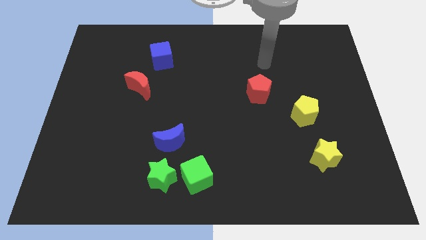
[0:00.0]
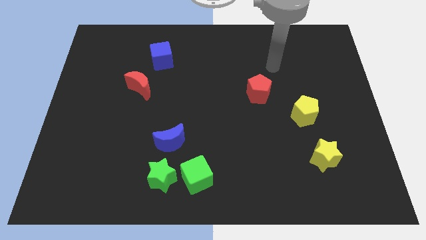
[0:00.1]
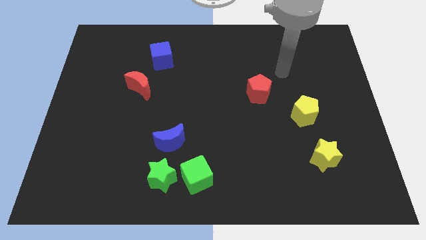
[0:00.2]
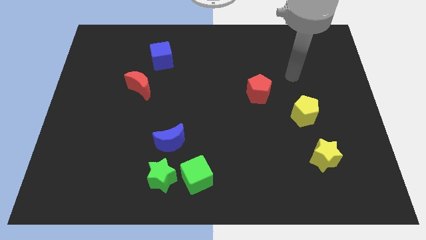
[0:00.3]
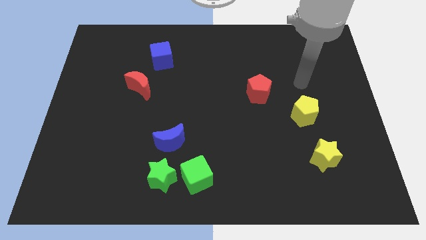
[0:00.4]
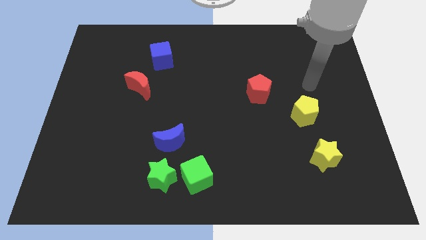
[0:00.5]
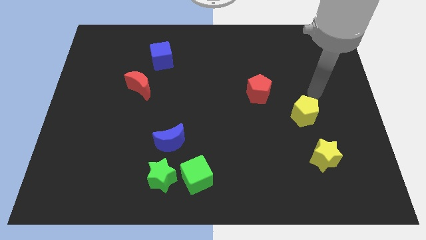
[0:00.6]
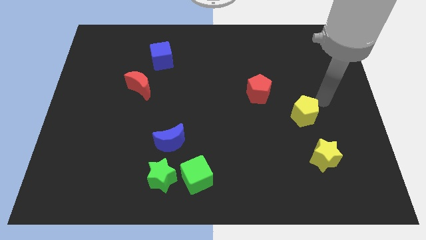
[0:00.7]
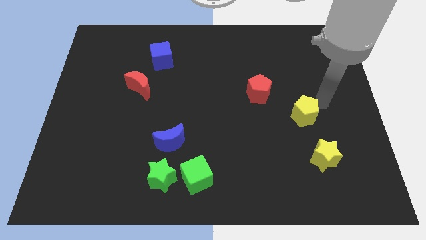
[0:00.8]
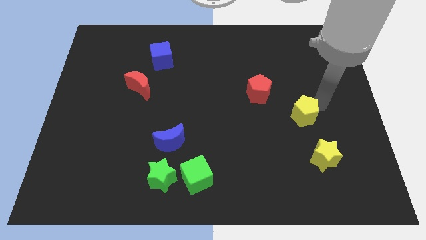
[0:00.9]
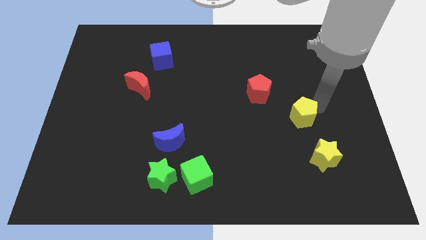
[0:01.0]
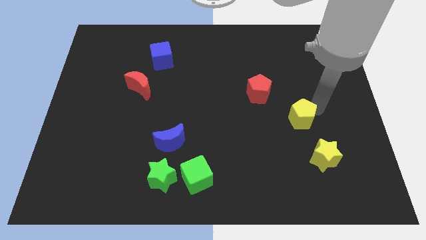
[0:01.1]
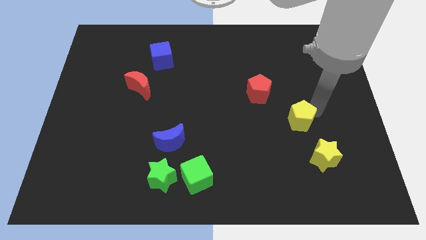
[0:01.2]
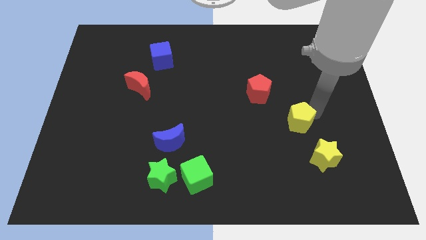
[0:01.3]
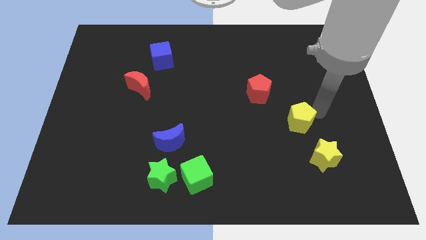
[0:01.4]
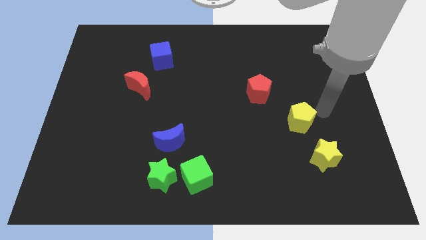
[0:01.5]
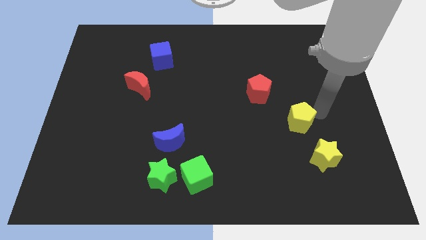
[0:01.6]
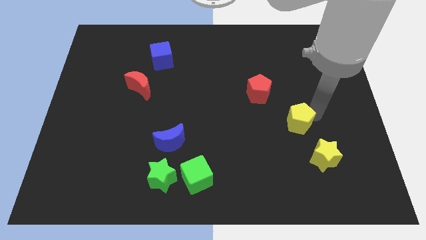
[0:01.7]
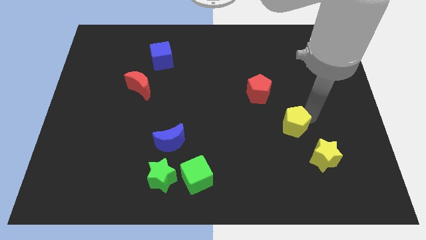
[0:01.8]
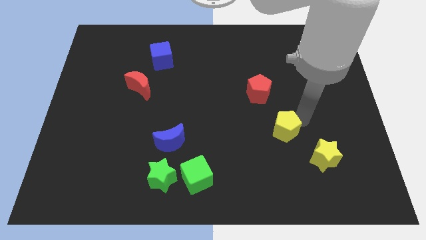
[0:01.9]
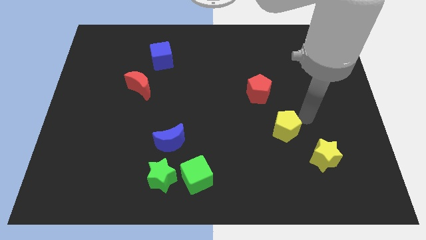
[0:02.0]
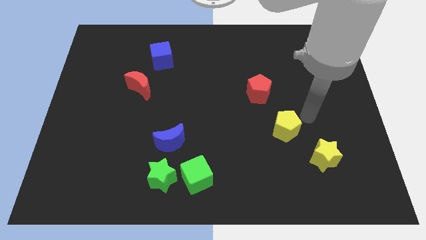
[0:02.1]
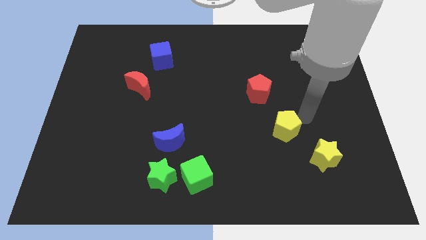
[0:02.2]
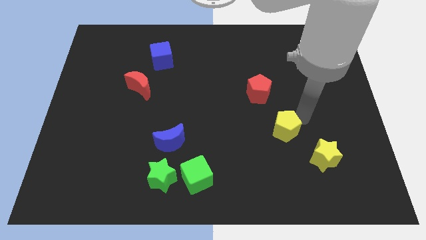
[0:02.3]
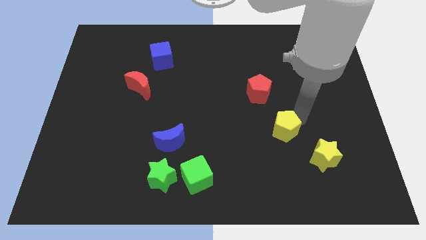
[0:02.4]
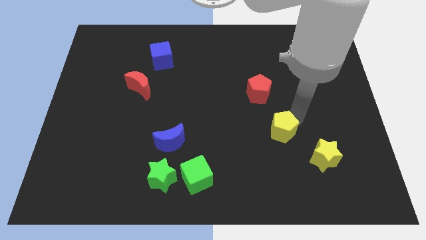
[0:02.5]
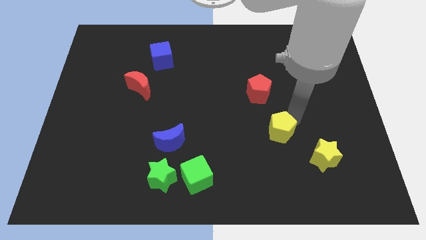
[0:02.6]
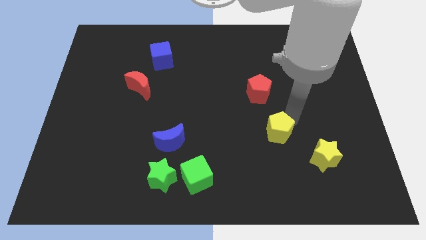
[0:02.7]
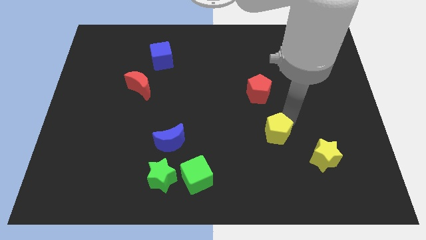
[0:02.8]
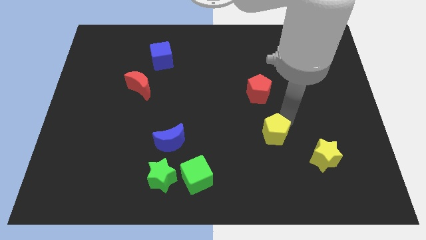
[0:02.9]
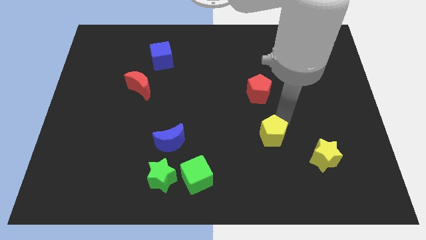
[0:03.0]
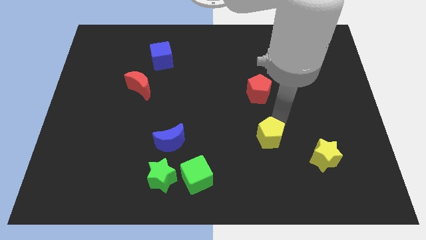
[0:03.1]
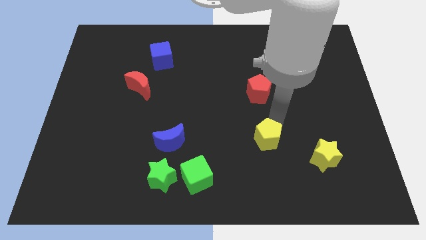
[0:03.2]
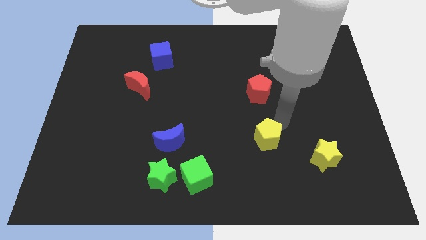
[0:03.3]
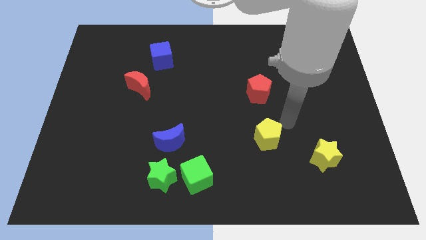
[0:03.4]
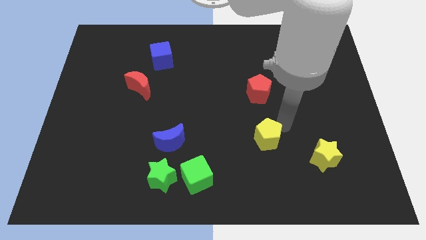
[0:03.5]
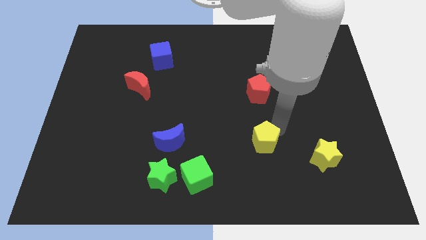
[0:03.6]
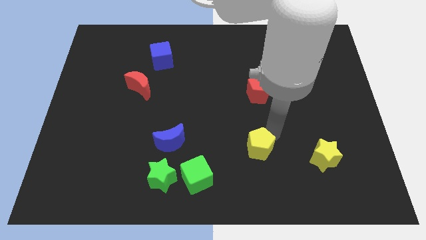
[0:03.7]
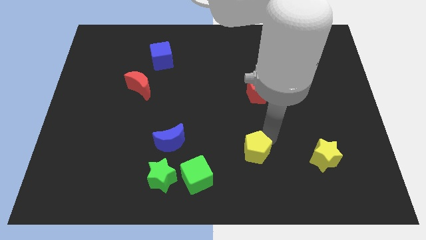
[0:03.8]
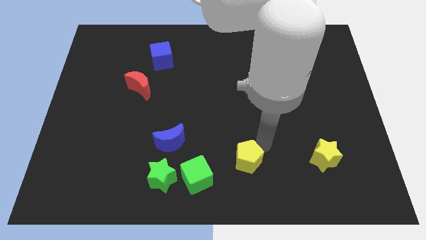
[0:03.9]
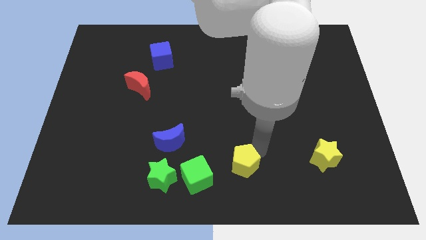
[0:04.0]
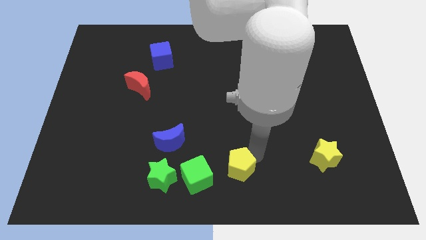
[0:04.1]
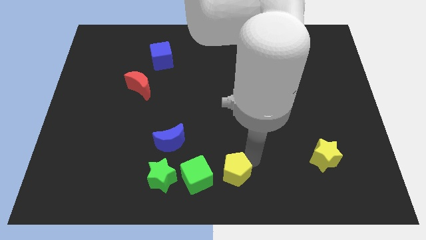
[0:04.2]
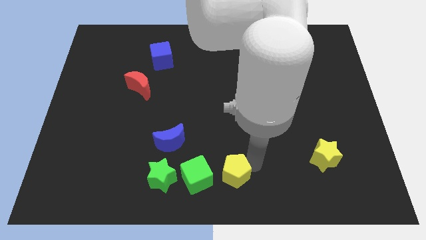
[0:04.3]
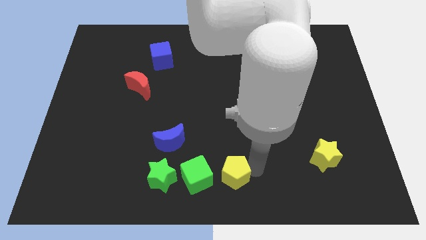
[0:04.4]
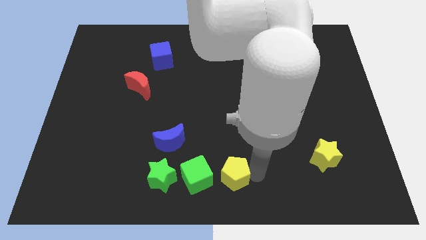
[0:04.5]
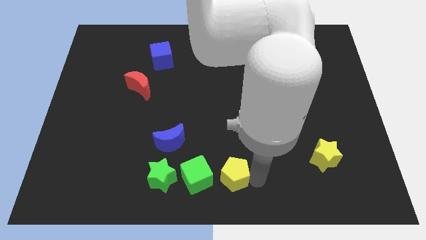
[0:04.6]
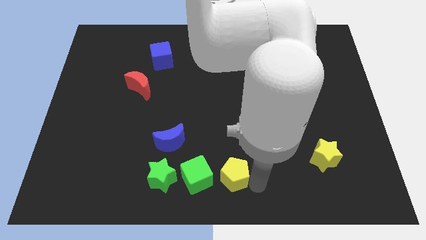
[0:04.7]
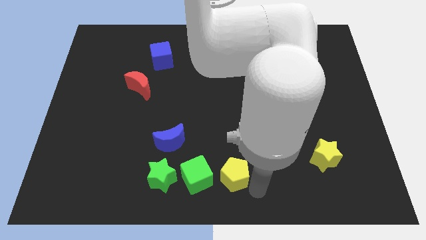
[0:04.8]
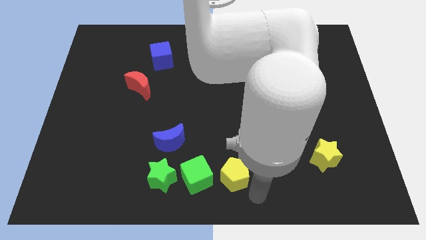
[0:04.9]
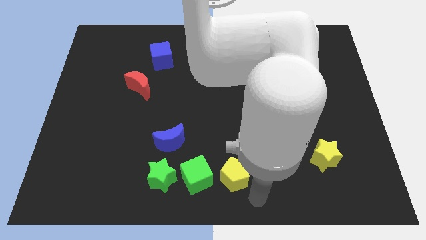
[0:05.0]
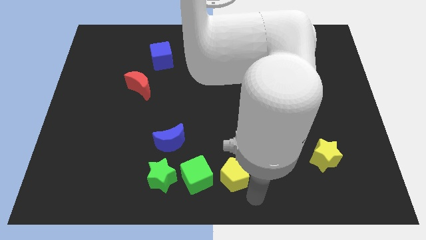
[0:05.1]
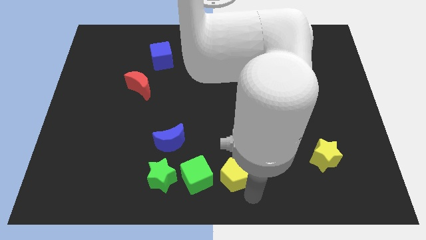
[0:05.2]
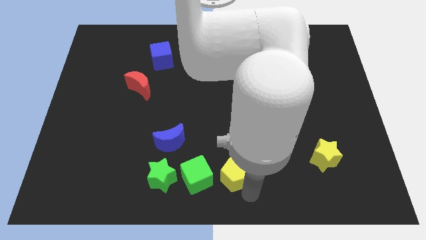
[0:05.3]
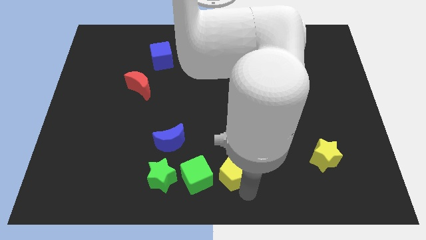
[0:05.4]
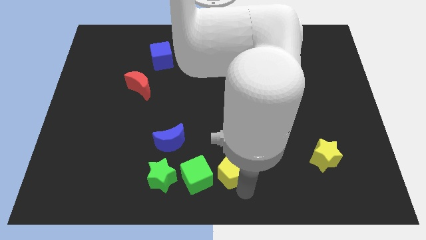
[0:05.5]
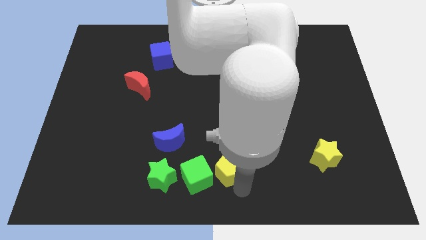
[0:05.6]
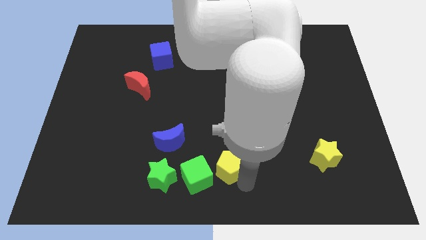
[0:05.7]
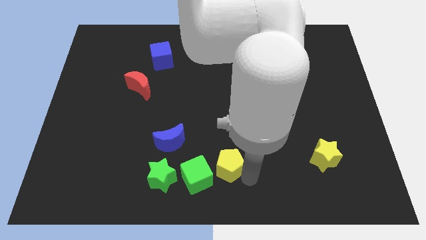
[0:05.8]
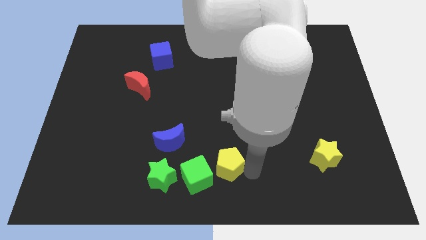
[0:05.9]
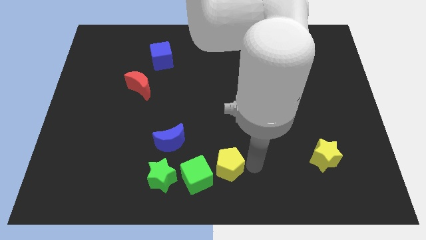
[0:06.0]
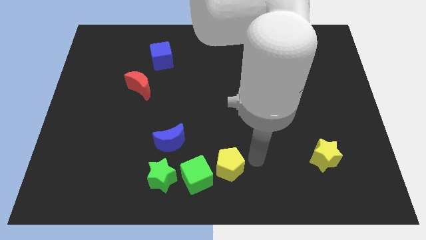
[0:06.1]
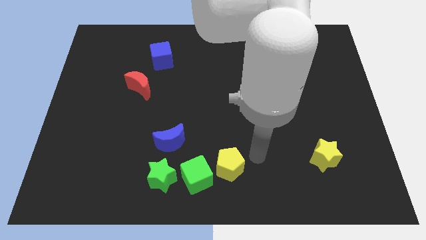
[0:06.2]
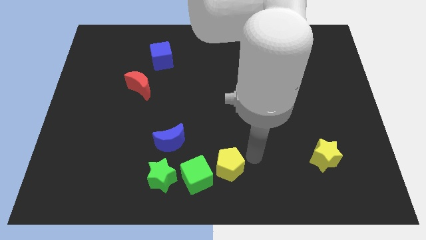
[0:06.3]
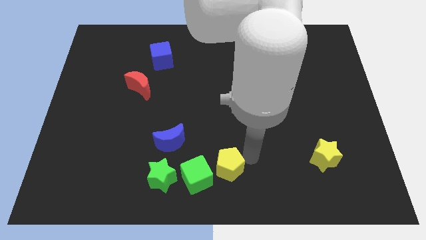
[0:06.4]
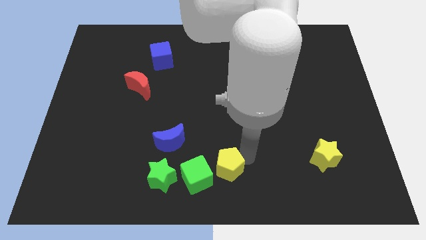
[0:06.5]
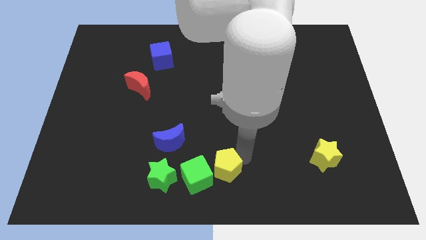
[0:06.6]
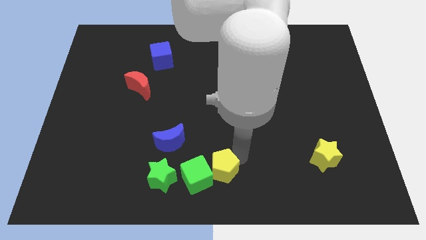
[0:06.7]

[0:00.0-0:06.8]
move the yellow pentagon towards the green cube

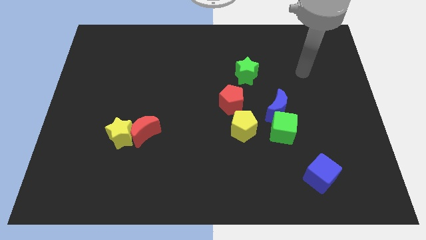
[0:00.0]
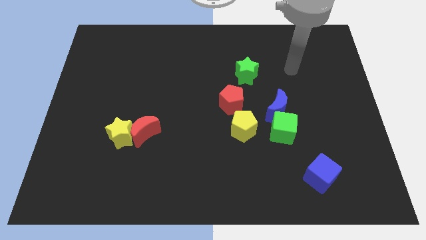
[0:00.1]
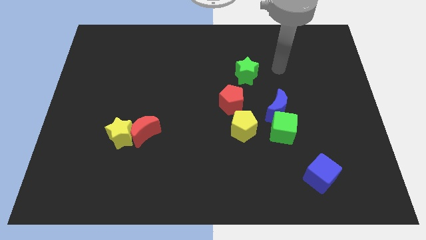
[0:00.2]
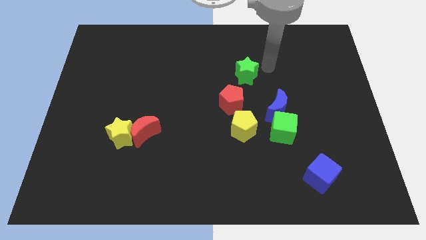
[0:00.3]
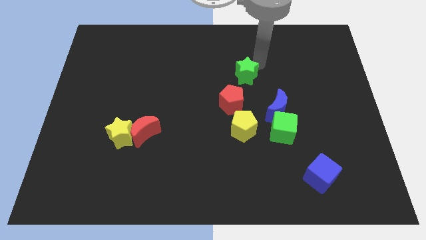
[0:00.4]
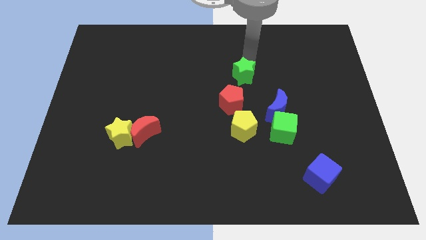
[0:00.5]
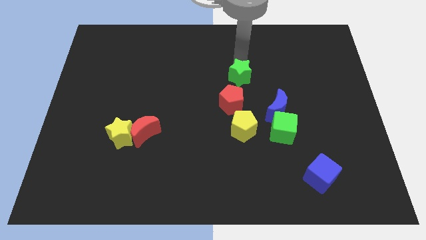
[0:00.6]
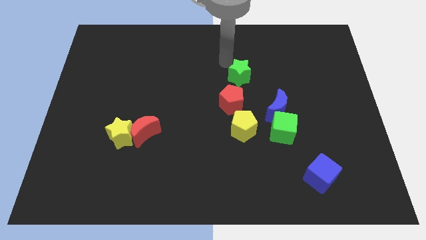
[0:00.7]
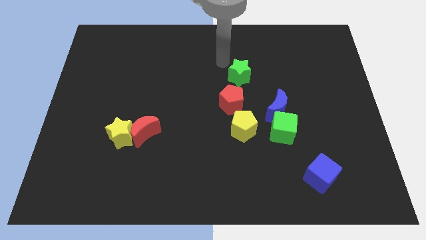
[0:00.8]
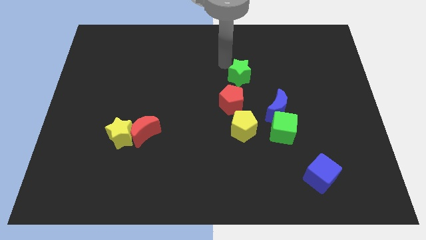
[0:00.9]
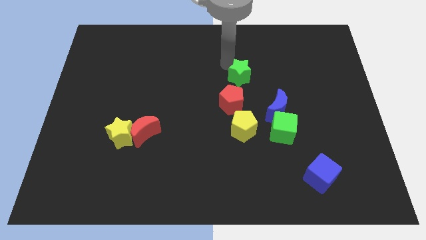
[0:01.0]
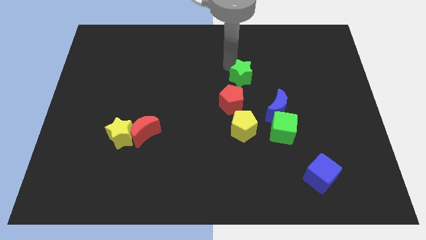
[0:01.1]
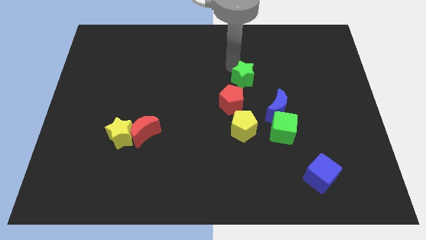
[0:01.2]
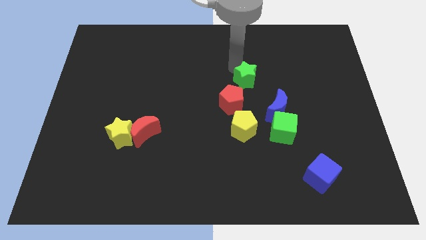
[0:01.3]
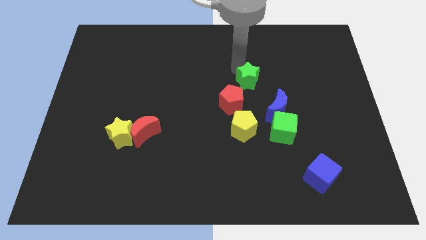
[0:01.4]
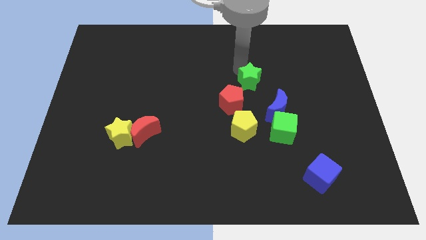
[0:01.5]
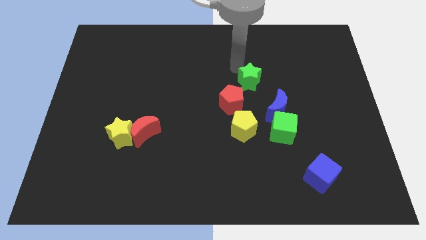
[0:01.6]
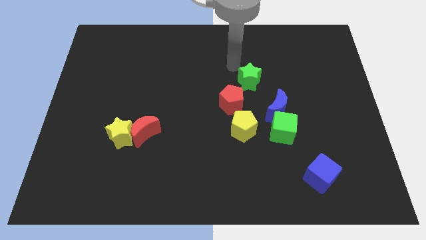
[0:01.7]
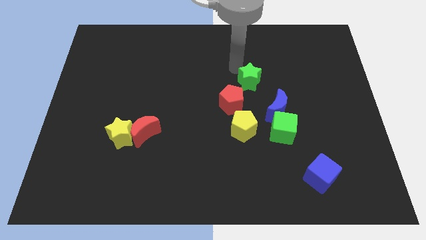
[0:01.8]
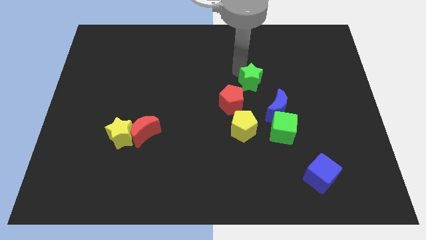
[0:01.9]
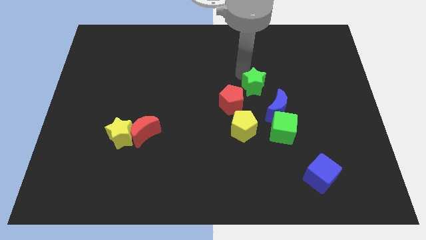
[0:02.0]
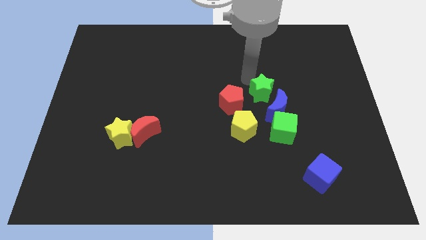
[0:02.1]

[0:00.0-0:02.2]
move the green star to the blue moon
